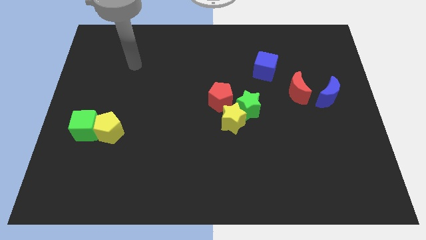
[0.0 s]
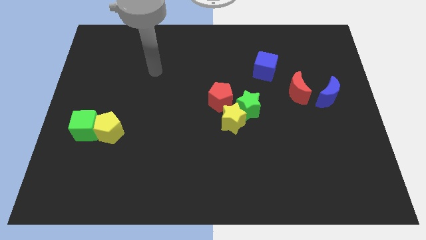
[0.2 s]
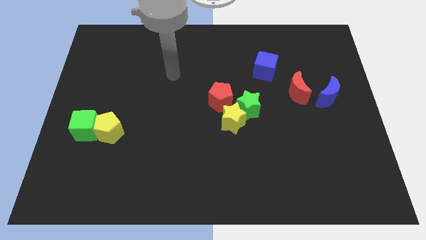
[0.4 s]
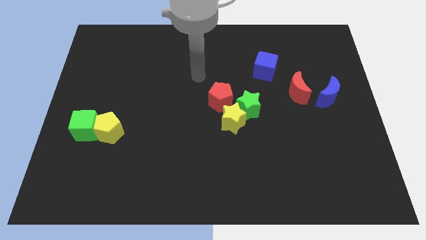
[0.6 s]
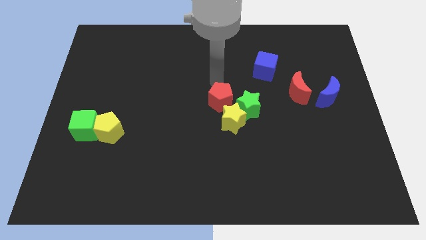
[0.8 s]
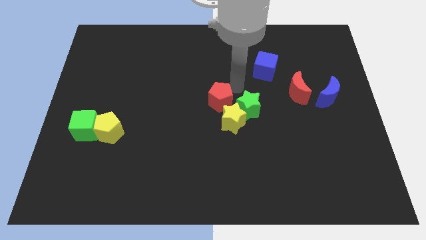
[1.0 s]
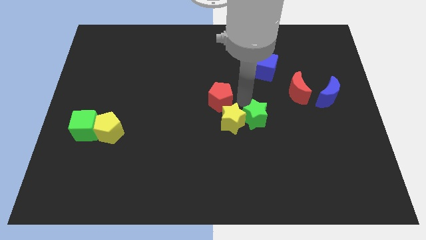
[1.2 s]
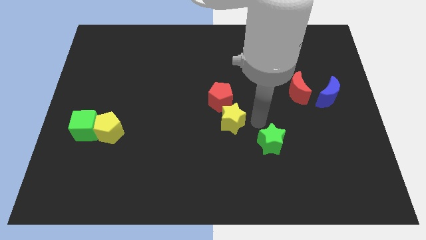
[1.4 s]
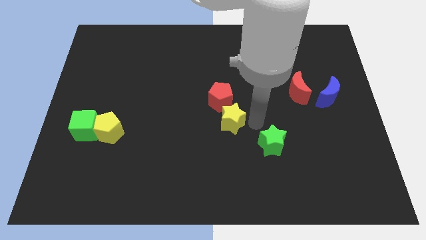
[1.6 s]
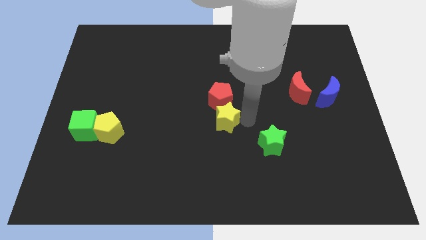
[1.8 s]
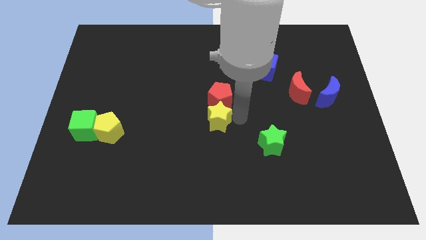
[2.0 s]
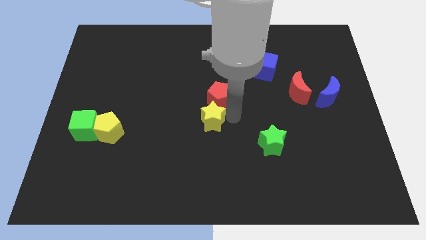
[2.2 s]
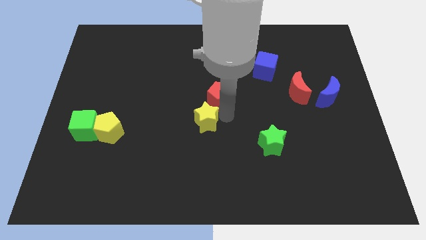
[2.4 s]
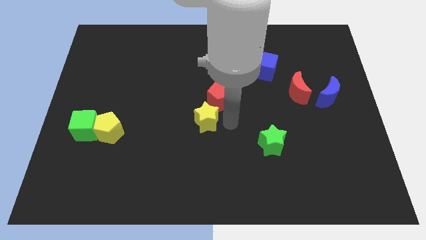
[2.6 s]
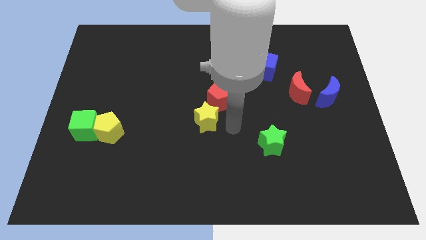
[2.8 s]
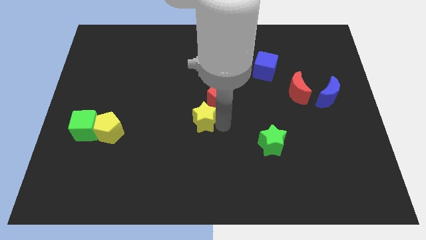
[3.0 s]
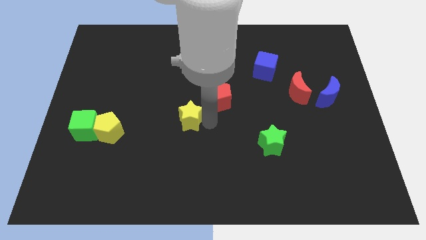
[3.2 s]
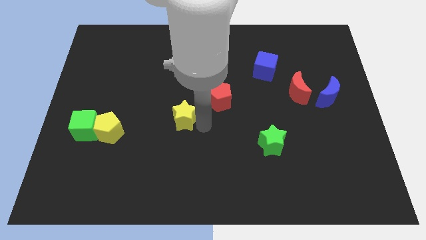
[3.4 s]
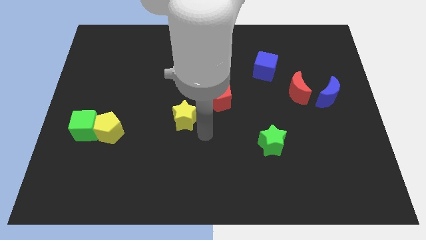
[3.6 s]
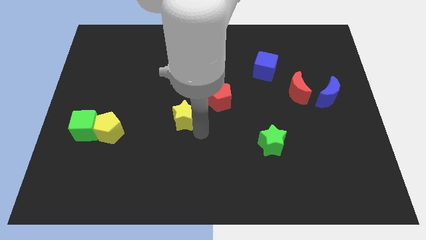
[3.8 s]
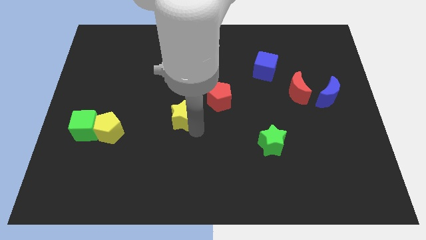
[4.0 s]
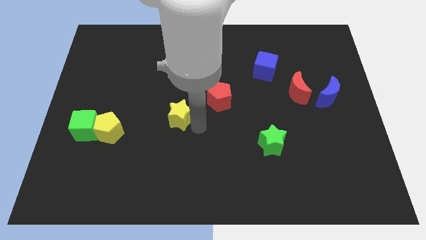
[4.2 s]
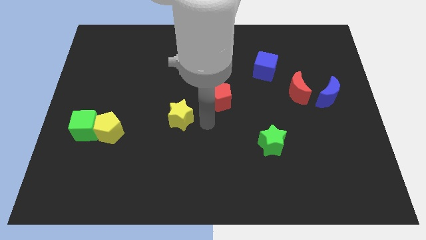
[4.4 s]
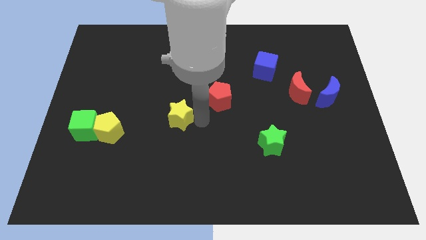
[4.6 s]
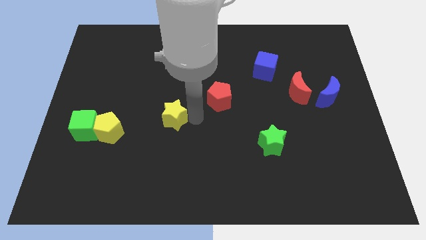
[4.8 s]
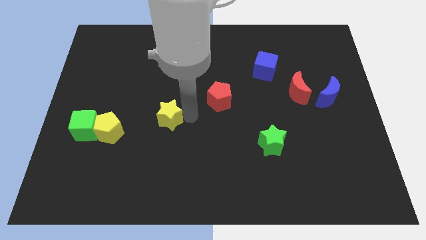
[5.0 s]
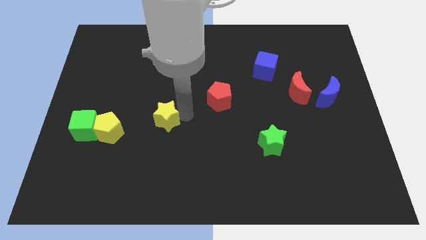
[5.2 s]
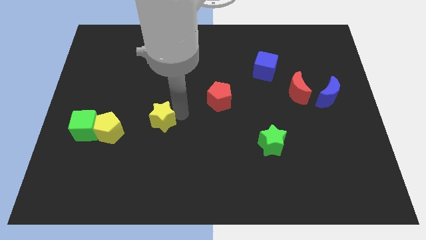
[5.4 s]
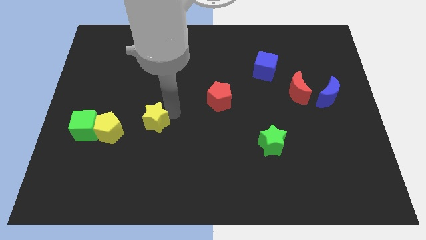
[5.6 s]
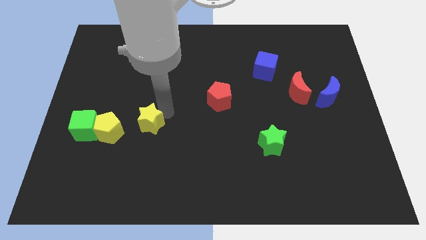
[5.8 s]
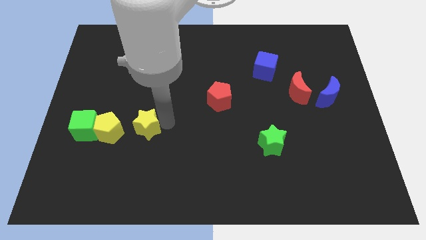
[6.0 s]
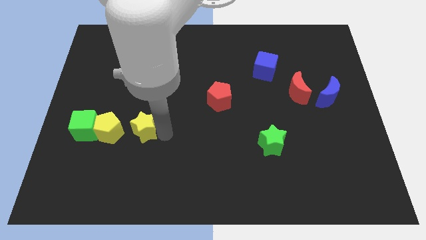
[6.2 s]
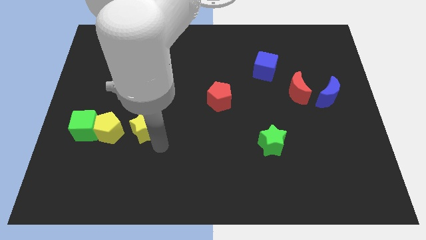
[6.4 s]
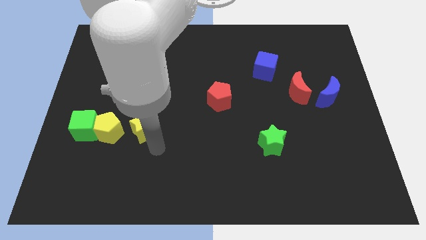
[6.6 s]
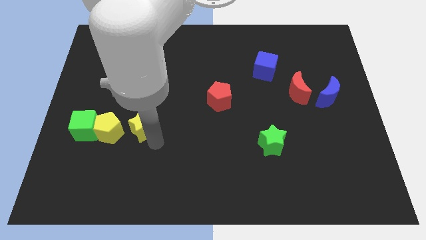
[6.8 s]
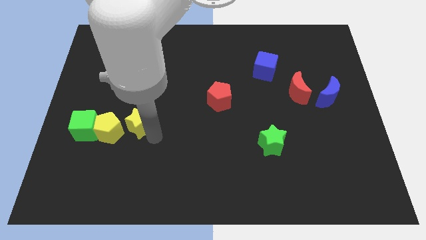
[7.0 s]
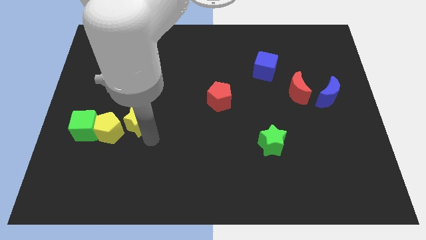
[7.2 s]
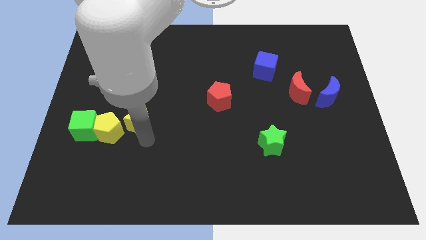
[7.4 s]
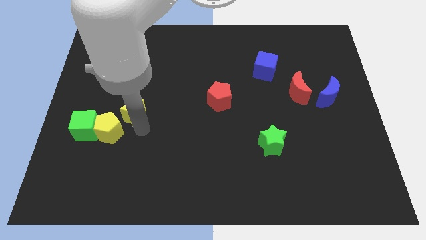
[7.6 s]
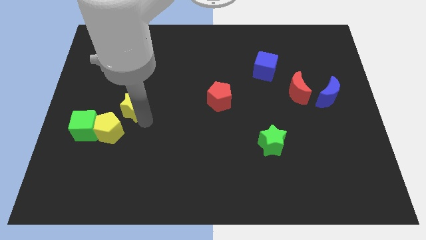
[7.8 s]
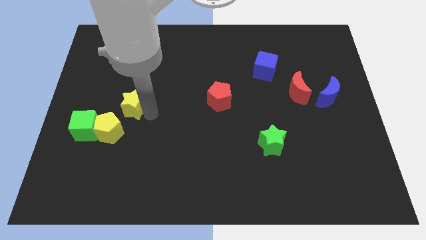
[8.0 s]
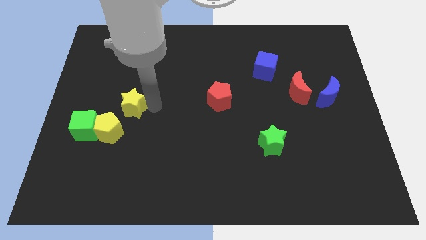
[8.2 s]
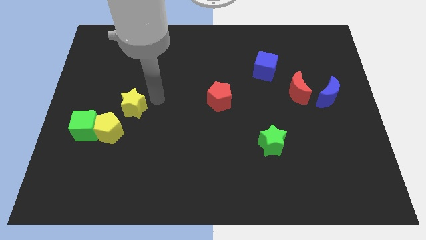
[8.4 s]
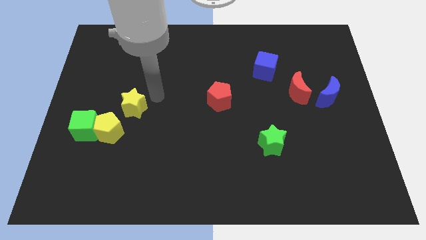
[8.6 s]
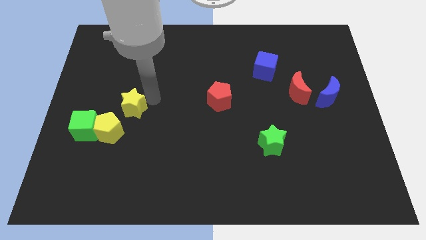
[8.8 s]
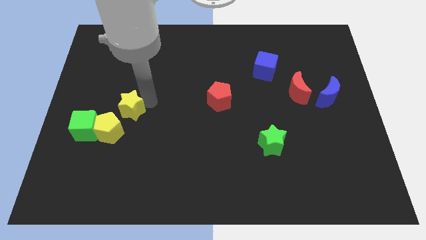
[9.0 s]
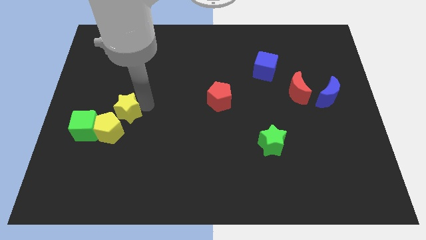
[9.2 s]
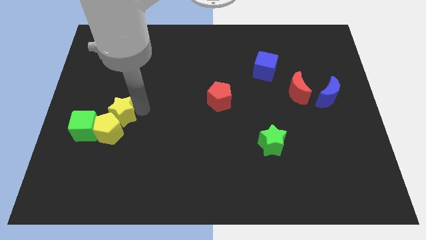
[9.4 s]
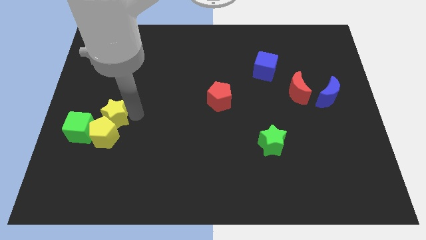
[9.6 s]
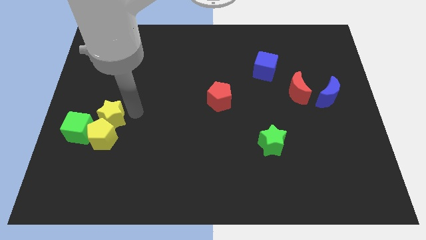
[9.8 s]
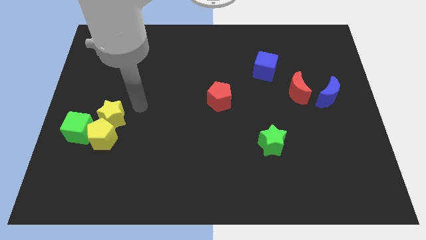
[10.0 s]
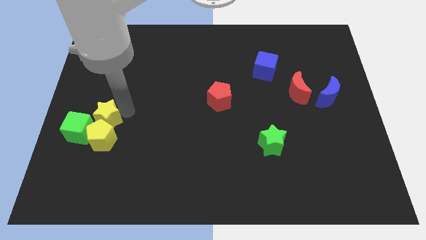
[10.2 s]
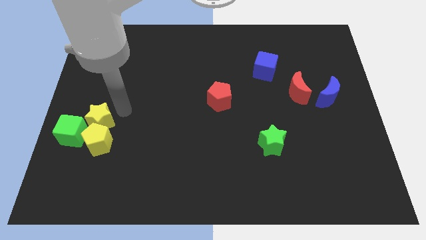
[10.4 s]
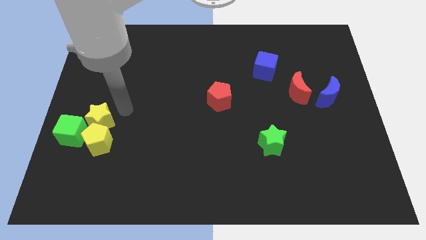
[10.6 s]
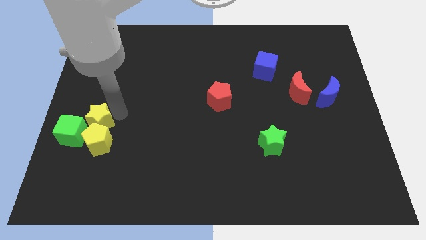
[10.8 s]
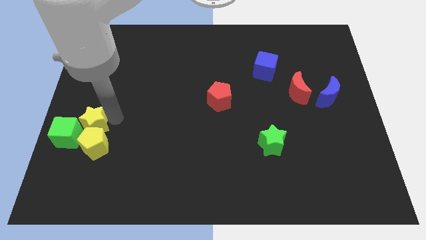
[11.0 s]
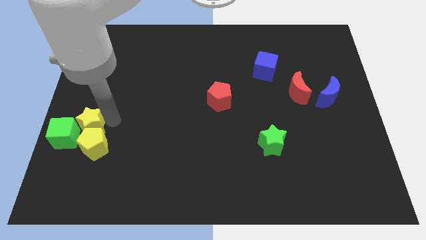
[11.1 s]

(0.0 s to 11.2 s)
slide the yellow star close to the green cube

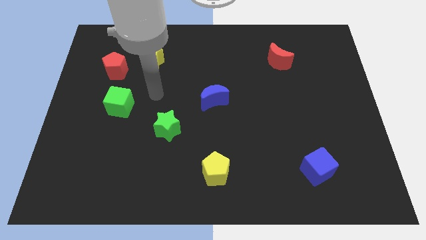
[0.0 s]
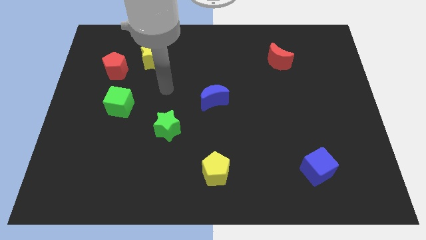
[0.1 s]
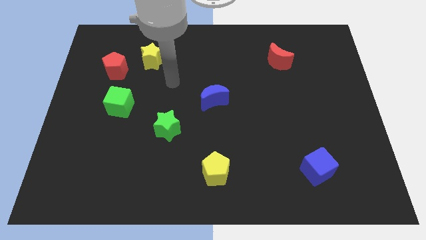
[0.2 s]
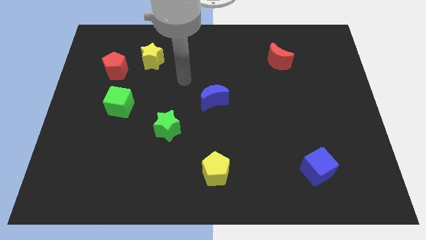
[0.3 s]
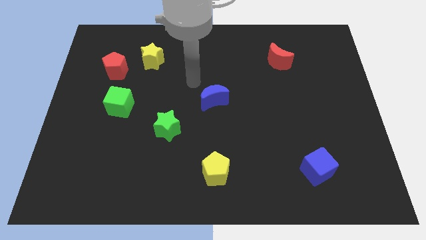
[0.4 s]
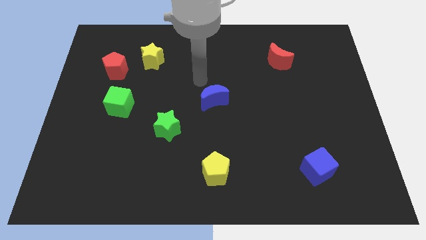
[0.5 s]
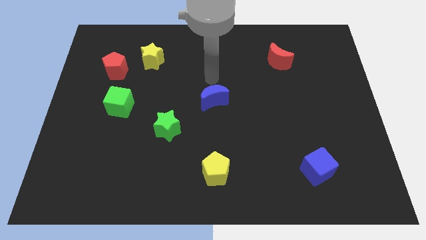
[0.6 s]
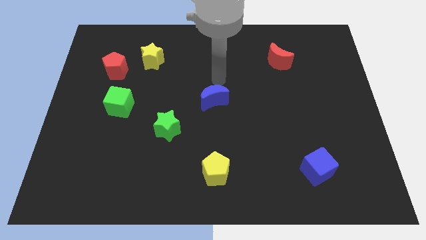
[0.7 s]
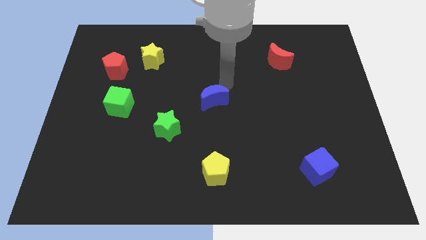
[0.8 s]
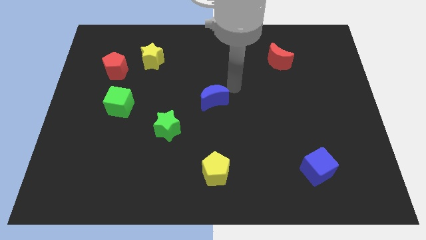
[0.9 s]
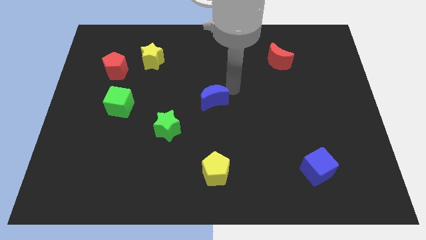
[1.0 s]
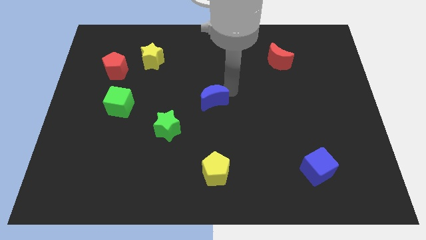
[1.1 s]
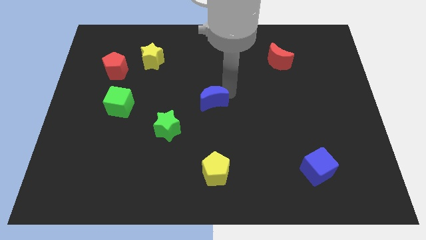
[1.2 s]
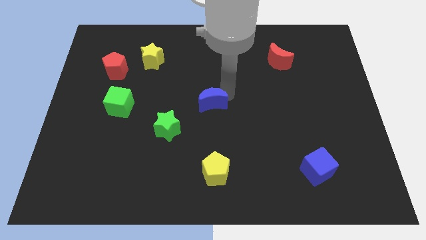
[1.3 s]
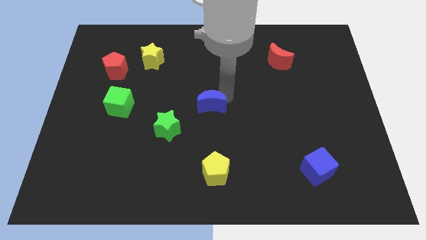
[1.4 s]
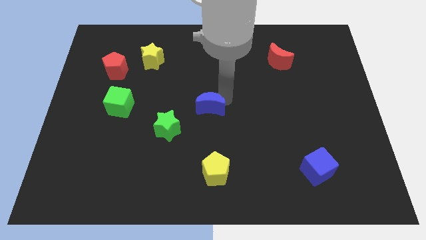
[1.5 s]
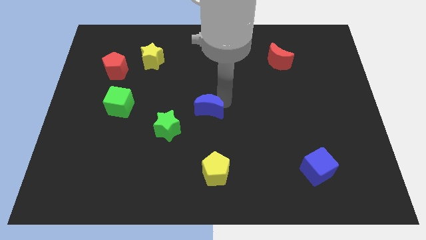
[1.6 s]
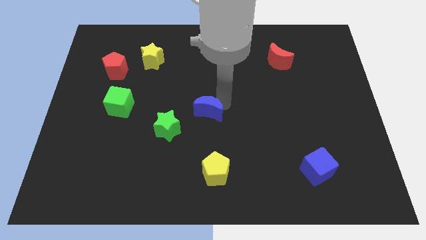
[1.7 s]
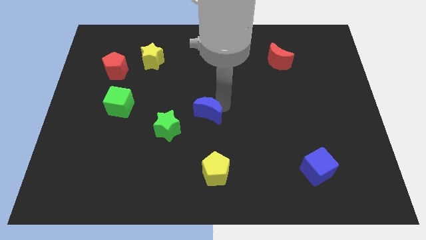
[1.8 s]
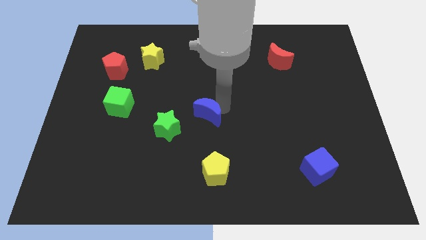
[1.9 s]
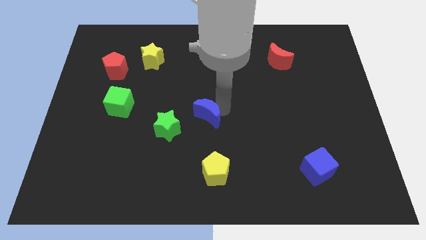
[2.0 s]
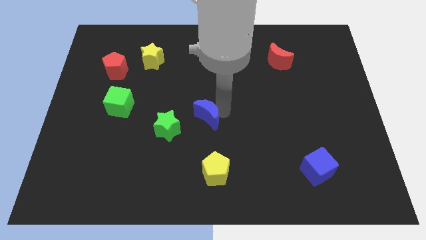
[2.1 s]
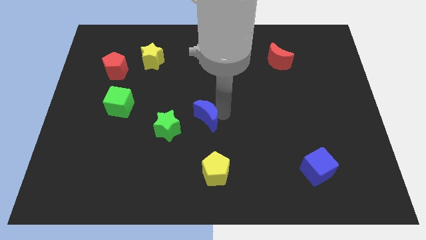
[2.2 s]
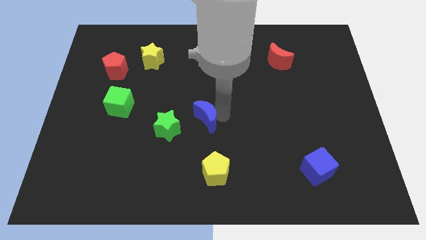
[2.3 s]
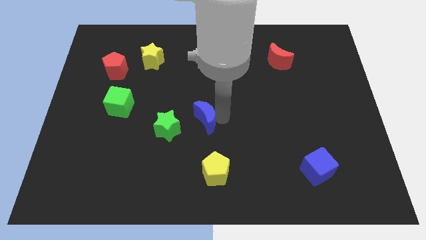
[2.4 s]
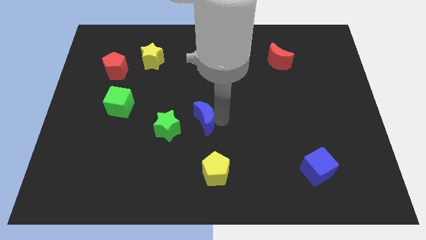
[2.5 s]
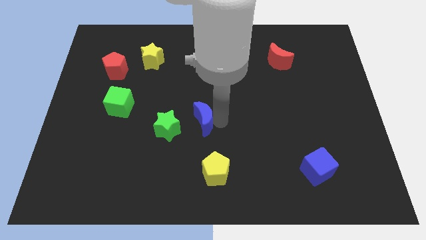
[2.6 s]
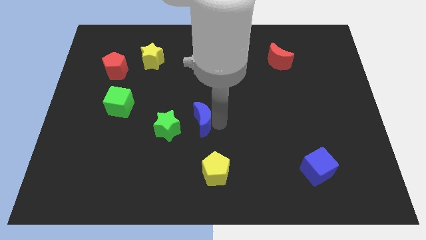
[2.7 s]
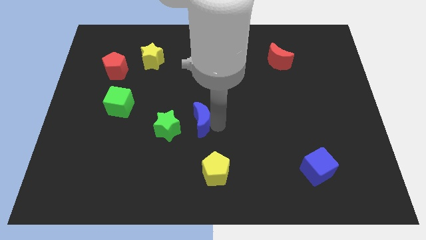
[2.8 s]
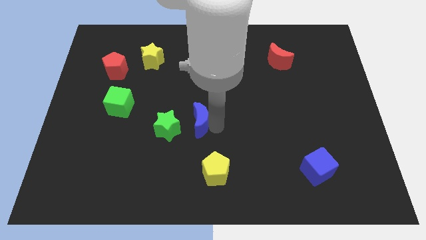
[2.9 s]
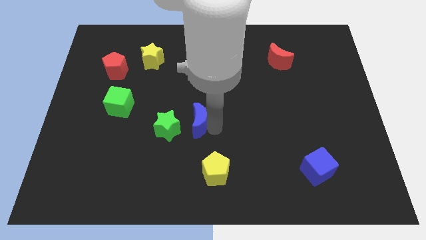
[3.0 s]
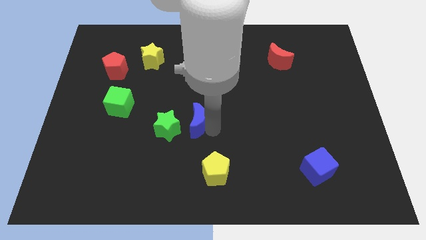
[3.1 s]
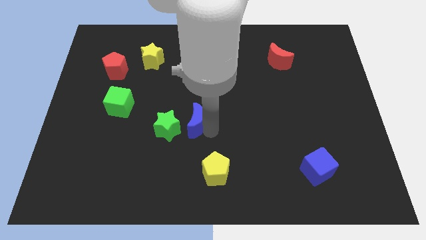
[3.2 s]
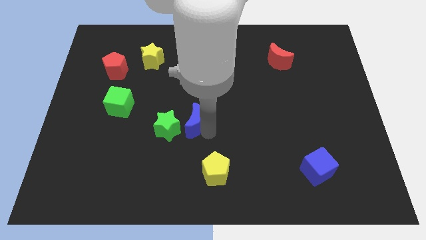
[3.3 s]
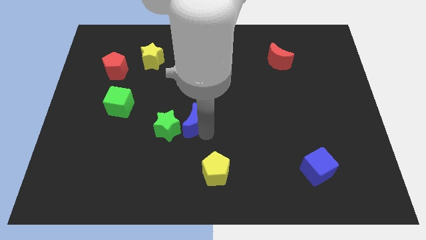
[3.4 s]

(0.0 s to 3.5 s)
slide the blue moon next to the green star
